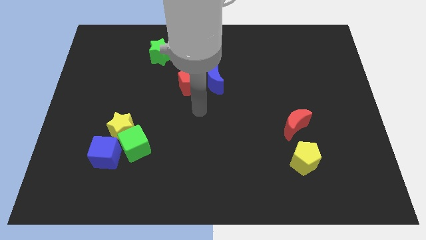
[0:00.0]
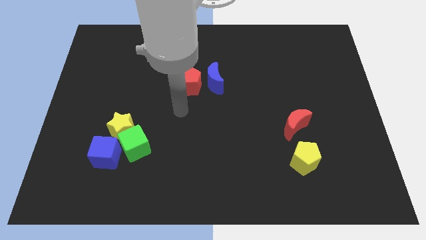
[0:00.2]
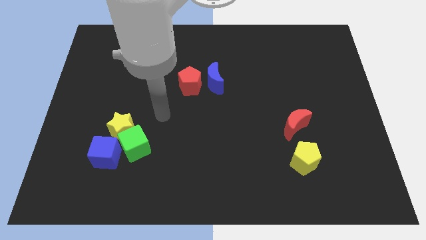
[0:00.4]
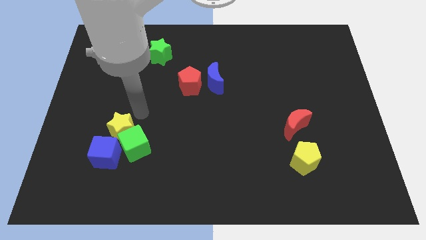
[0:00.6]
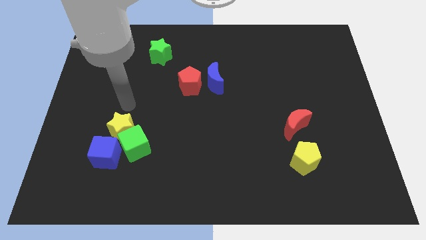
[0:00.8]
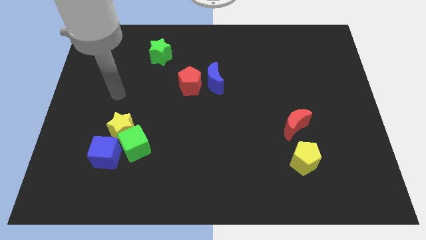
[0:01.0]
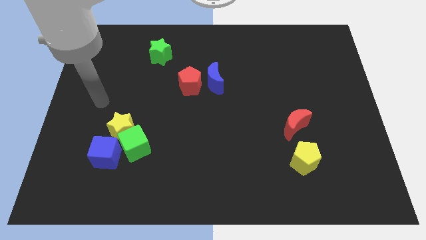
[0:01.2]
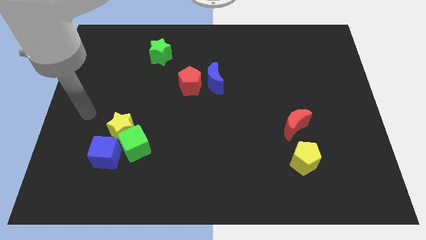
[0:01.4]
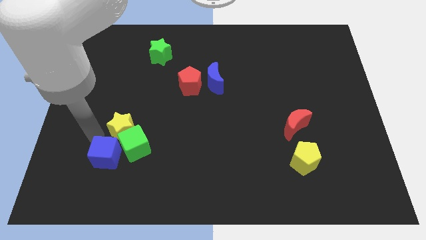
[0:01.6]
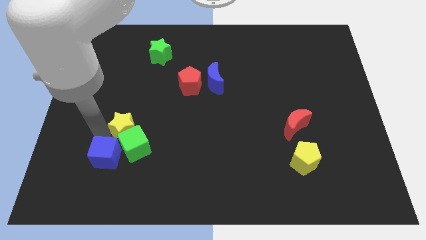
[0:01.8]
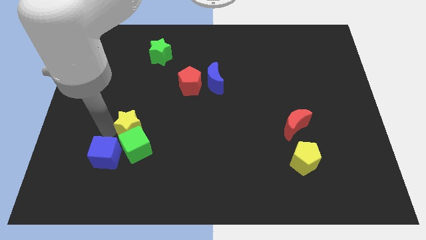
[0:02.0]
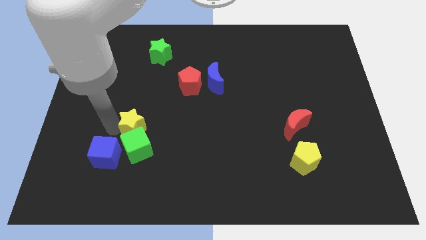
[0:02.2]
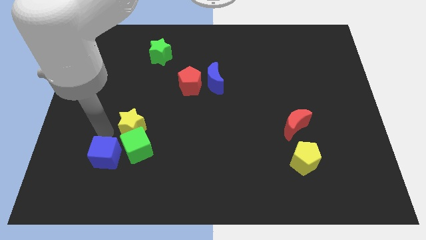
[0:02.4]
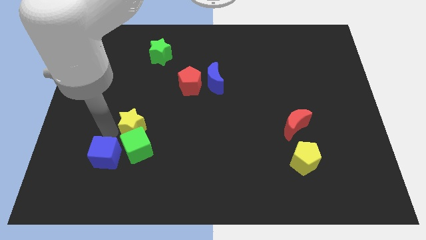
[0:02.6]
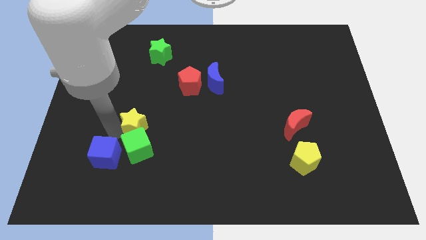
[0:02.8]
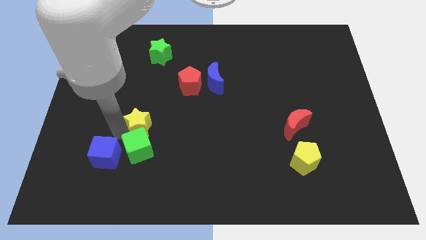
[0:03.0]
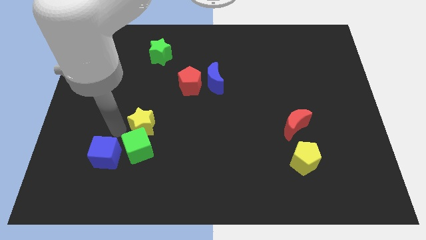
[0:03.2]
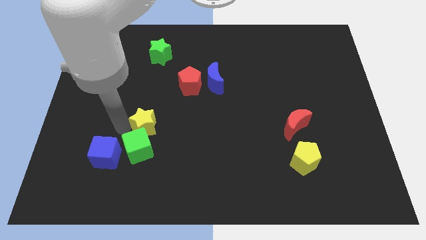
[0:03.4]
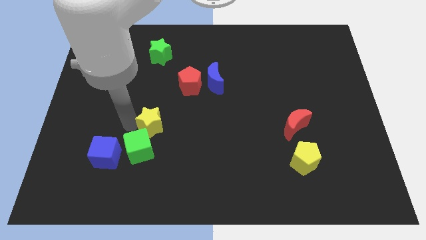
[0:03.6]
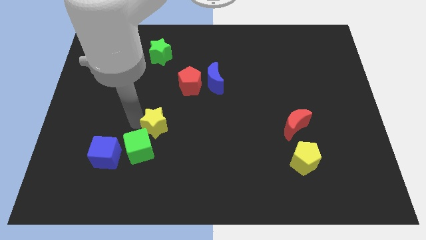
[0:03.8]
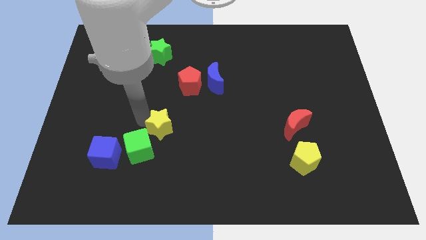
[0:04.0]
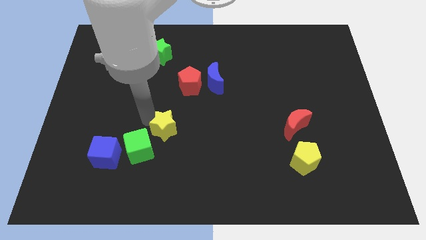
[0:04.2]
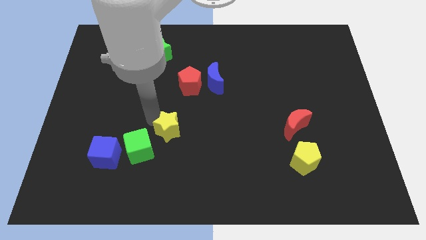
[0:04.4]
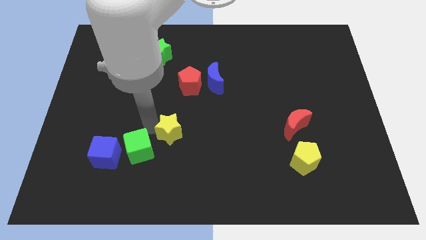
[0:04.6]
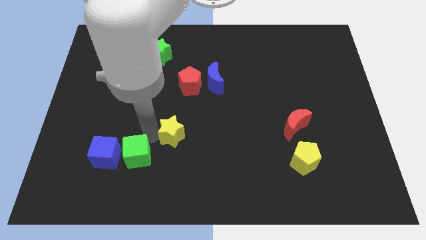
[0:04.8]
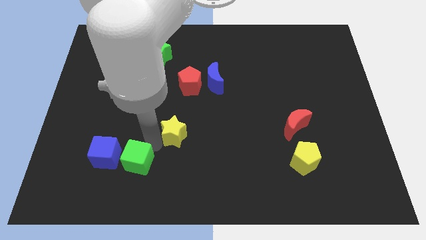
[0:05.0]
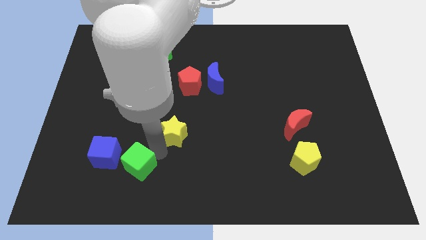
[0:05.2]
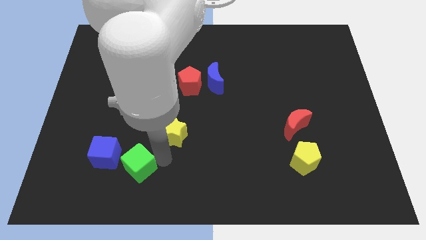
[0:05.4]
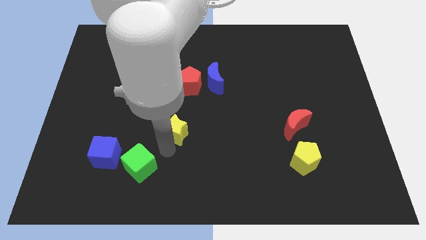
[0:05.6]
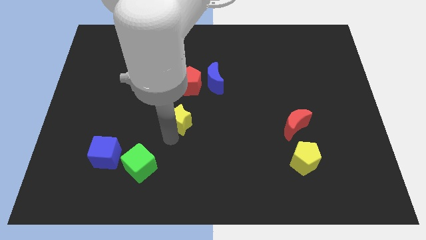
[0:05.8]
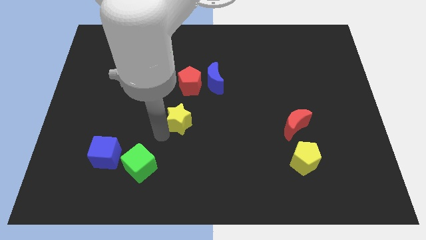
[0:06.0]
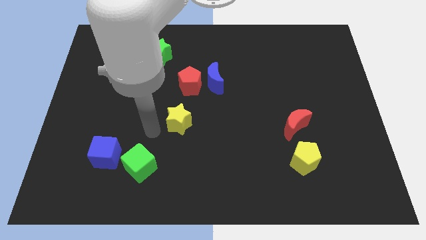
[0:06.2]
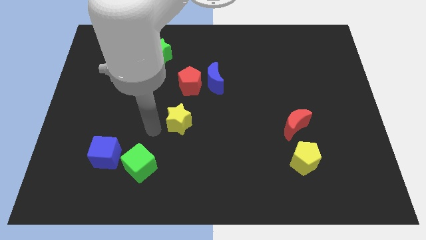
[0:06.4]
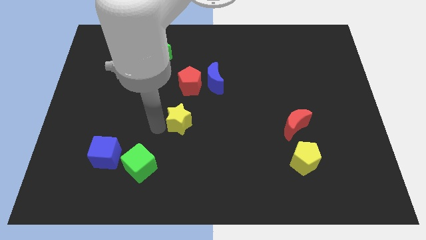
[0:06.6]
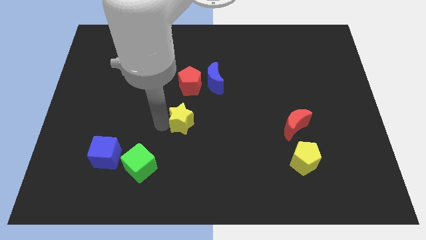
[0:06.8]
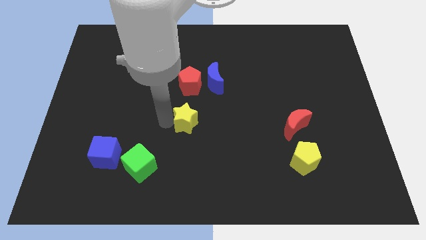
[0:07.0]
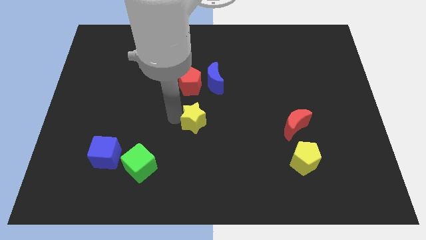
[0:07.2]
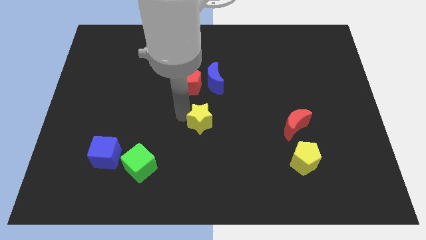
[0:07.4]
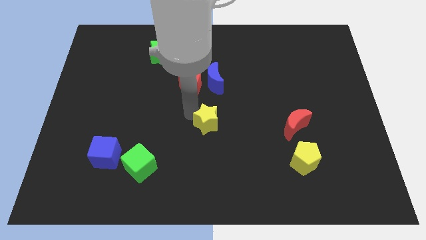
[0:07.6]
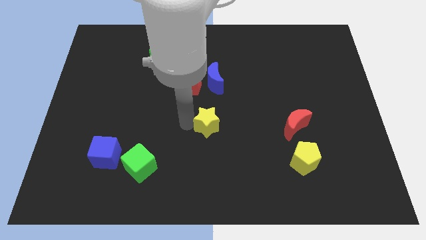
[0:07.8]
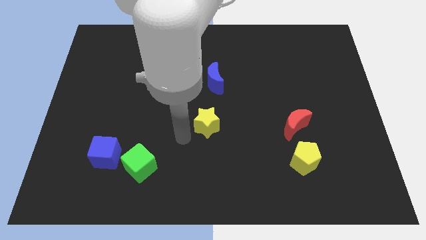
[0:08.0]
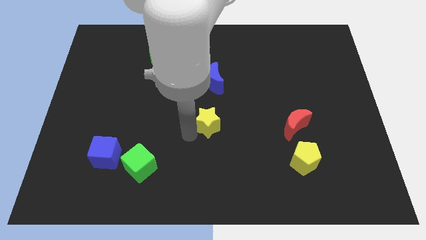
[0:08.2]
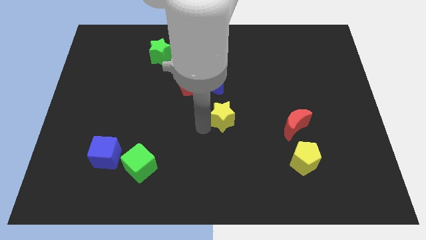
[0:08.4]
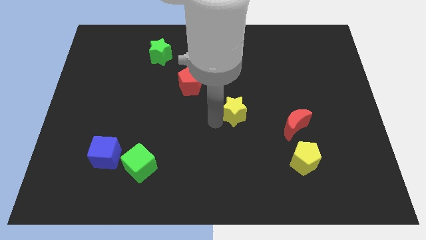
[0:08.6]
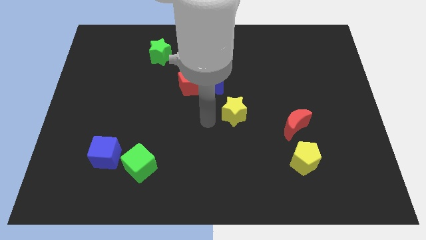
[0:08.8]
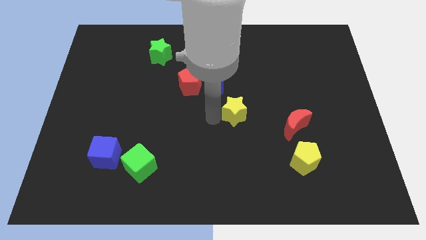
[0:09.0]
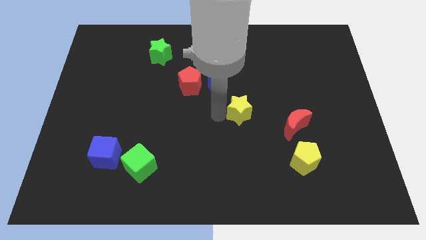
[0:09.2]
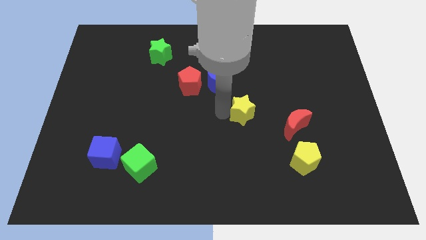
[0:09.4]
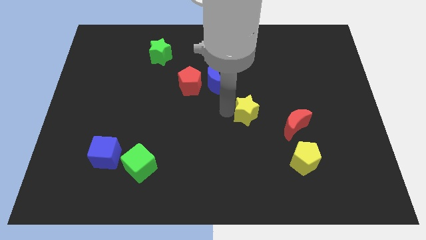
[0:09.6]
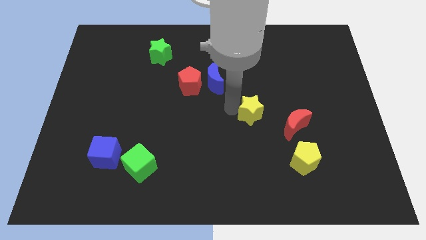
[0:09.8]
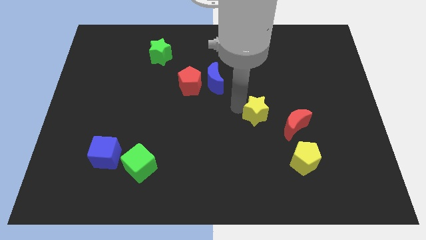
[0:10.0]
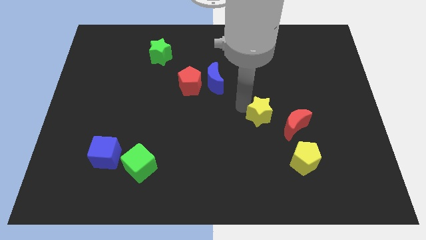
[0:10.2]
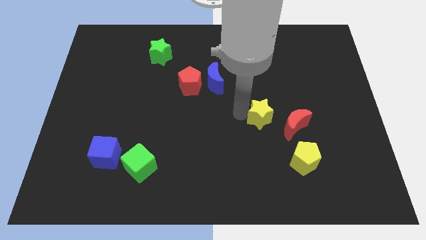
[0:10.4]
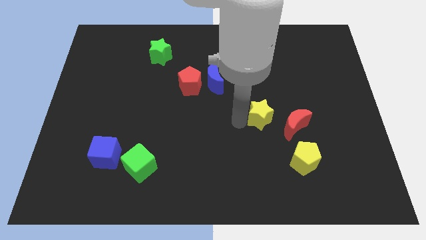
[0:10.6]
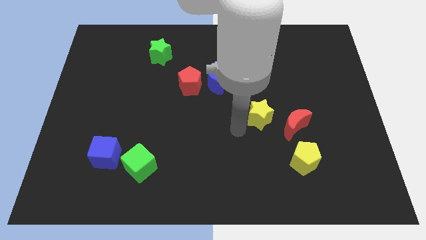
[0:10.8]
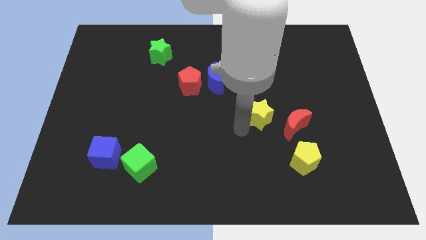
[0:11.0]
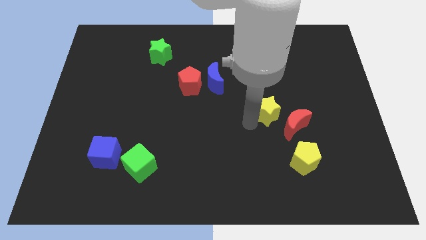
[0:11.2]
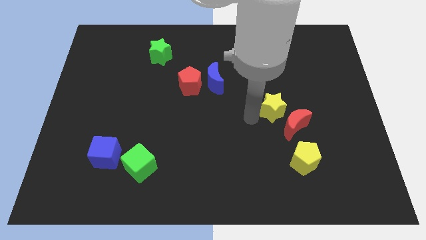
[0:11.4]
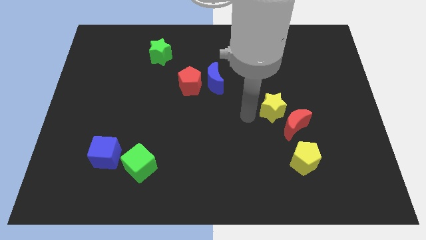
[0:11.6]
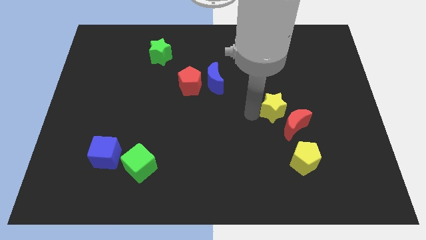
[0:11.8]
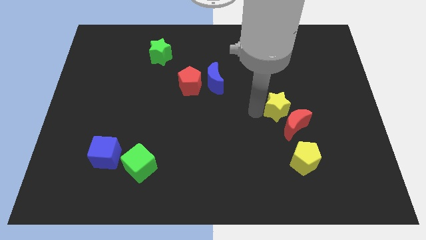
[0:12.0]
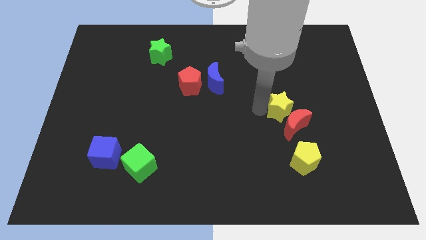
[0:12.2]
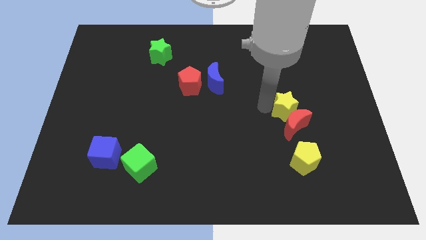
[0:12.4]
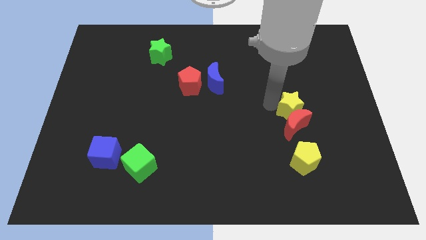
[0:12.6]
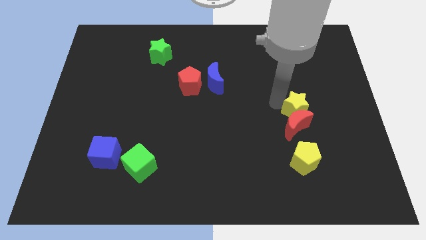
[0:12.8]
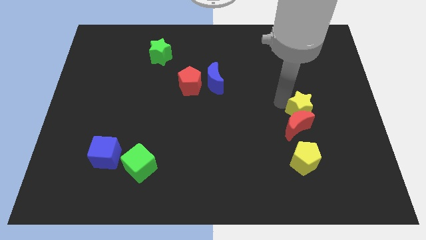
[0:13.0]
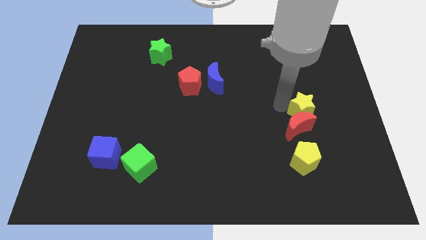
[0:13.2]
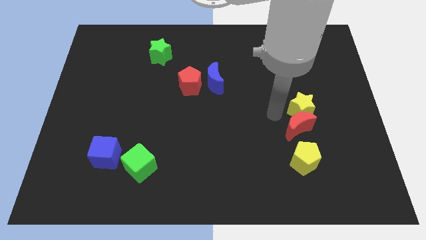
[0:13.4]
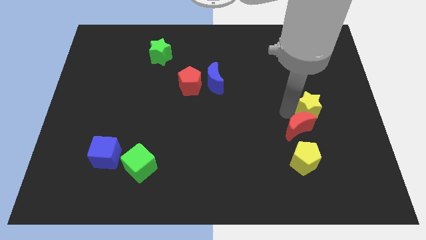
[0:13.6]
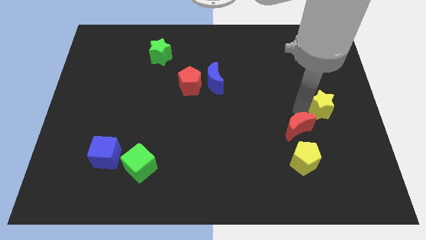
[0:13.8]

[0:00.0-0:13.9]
move the yellow star to the center right
